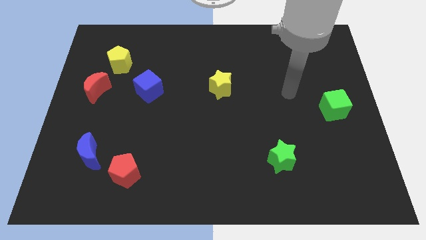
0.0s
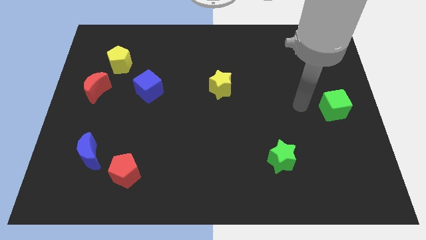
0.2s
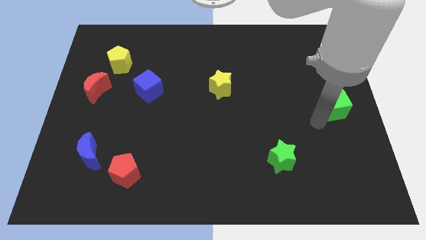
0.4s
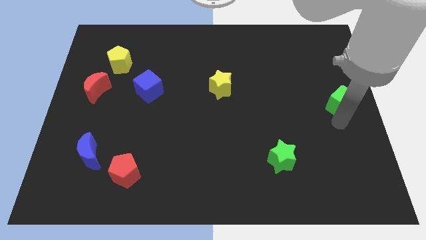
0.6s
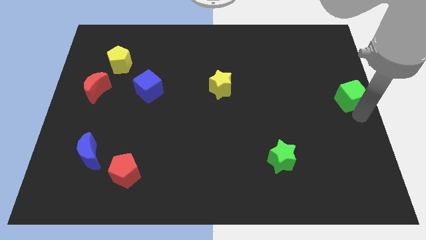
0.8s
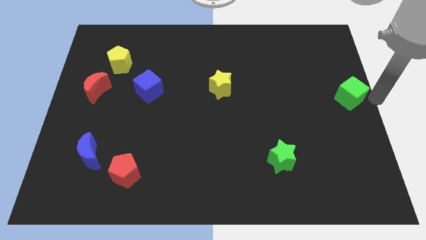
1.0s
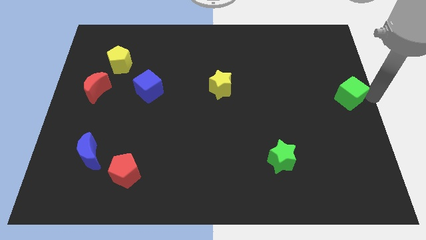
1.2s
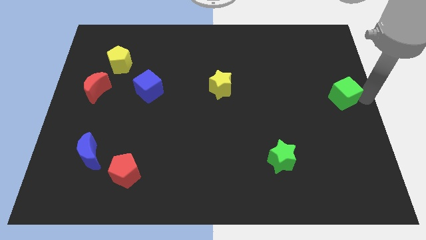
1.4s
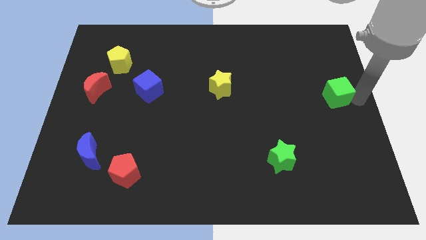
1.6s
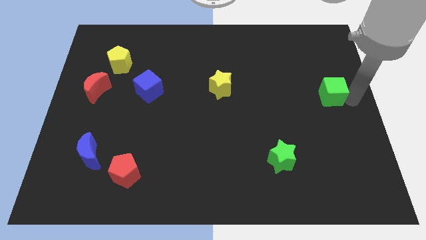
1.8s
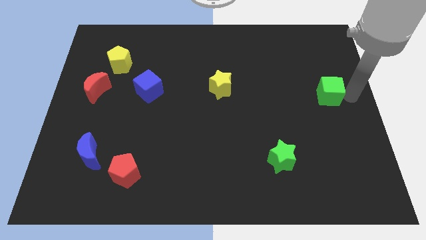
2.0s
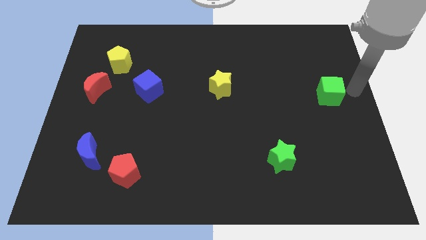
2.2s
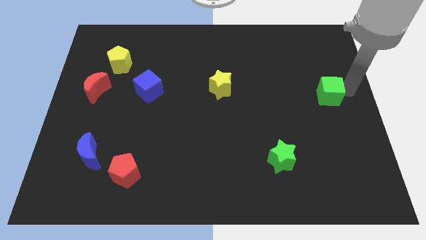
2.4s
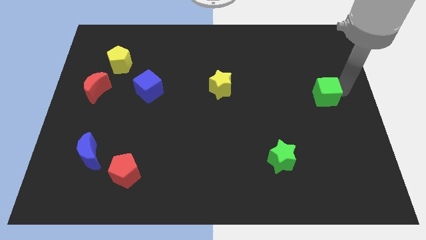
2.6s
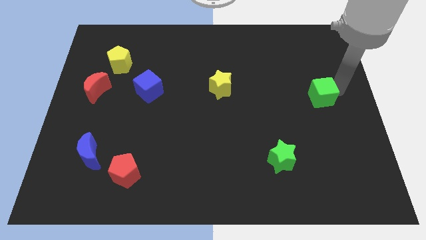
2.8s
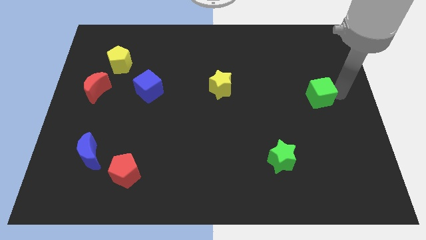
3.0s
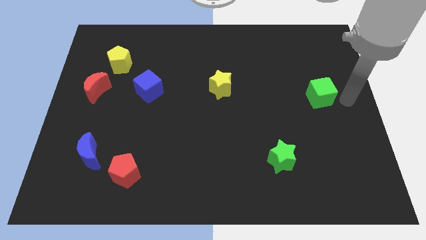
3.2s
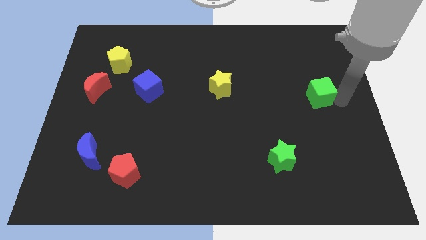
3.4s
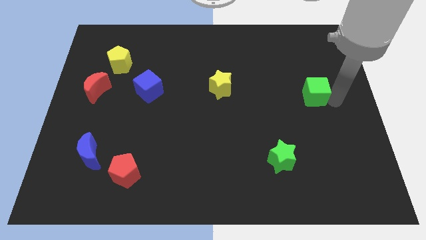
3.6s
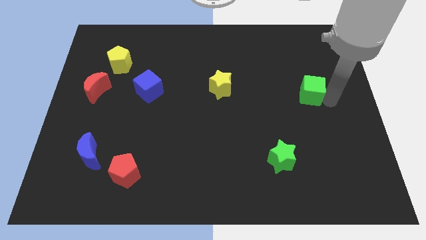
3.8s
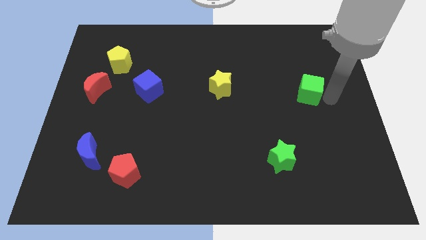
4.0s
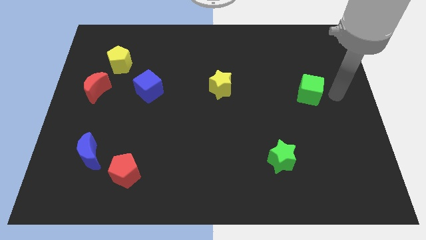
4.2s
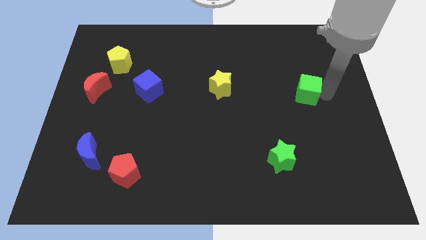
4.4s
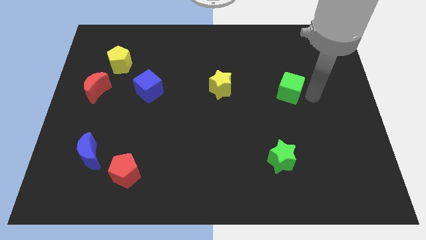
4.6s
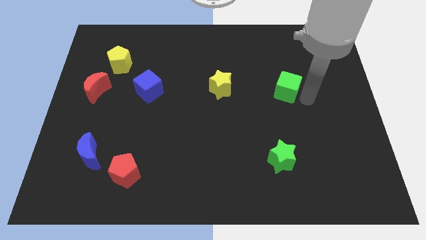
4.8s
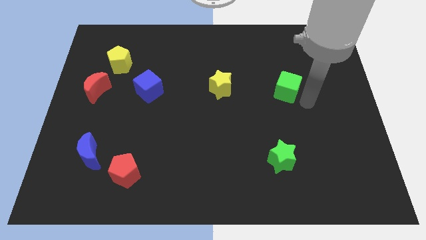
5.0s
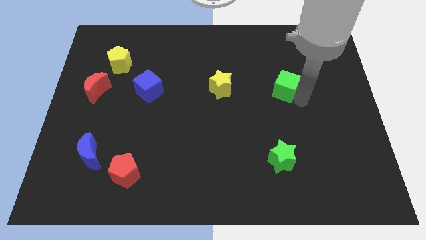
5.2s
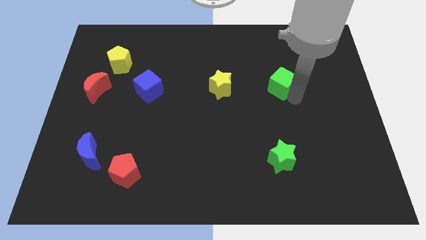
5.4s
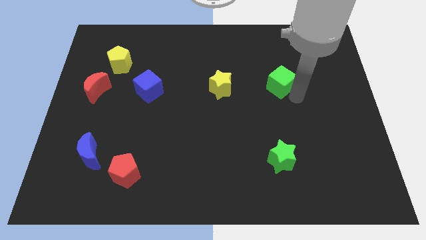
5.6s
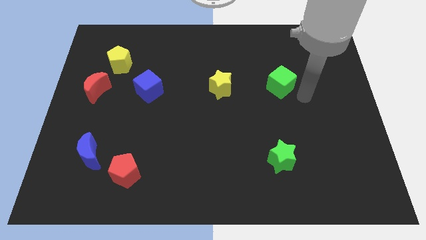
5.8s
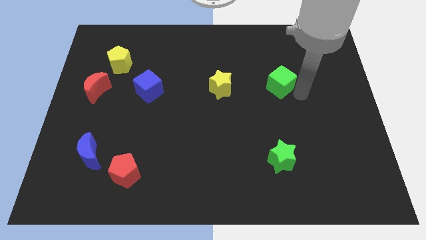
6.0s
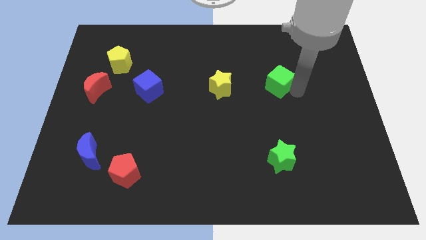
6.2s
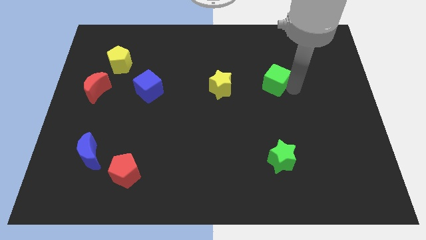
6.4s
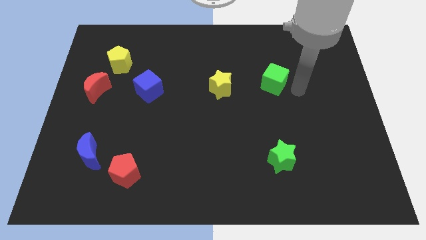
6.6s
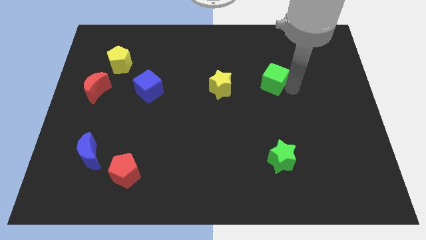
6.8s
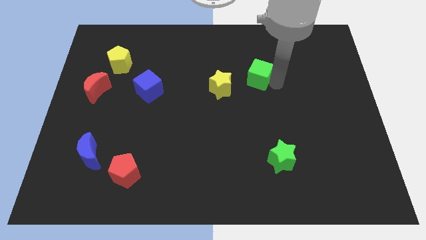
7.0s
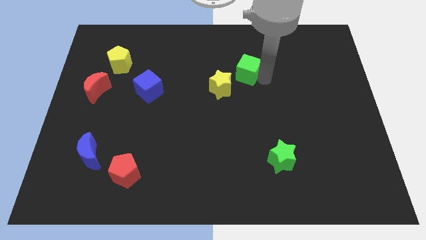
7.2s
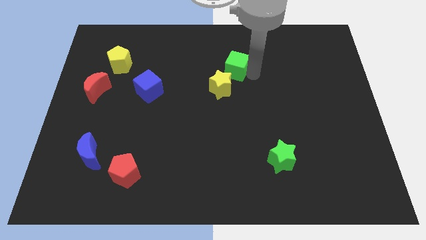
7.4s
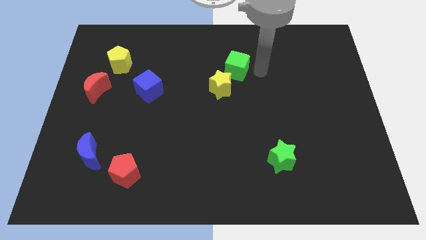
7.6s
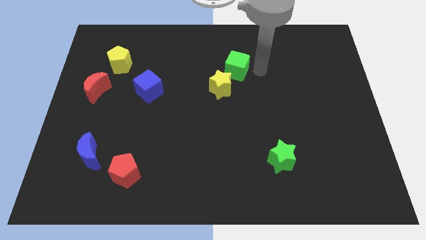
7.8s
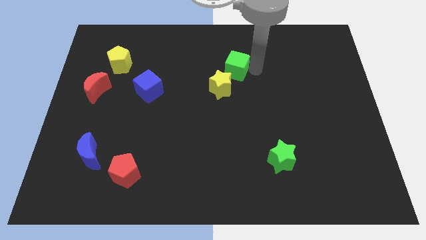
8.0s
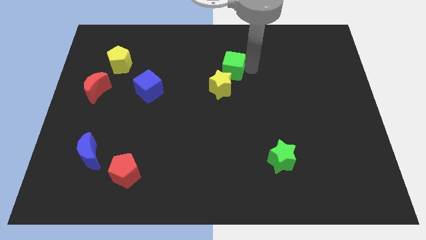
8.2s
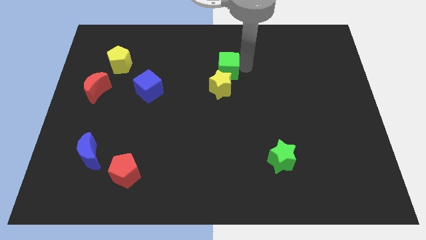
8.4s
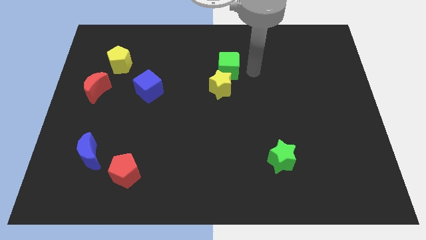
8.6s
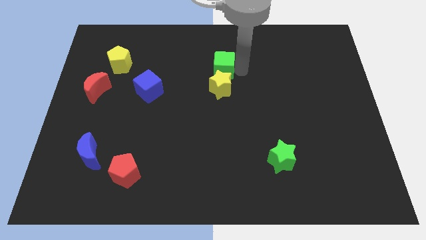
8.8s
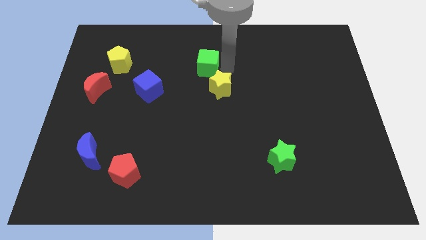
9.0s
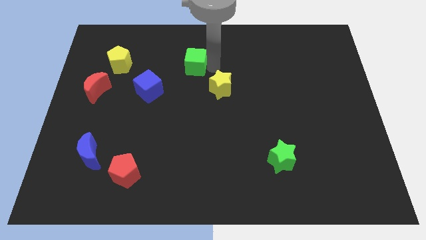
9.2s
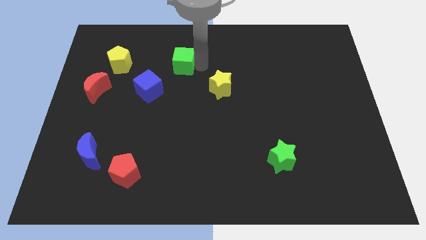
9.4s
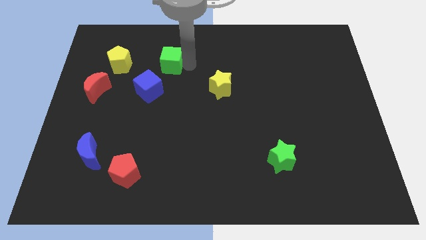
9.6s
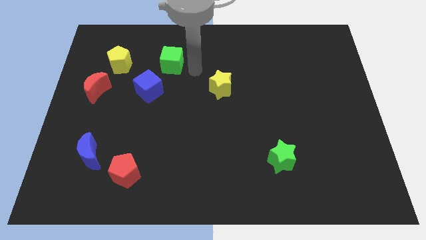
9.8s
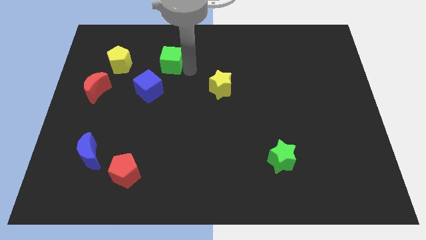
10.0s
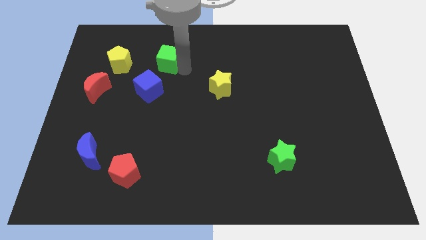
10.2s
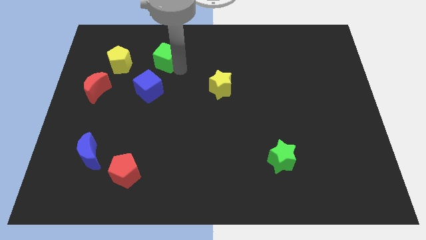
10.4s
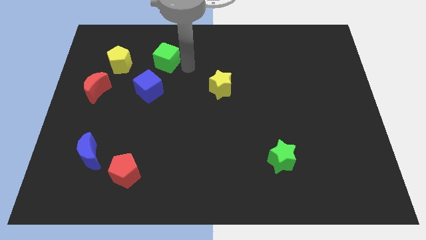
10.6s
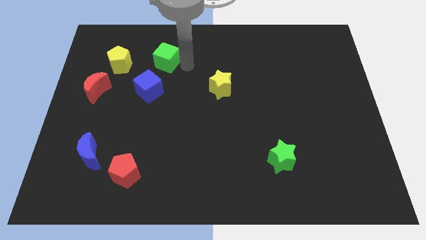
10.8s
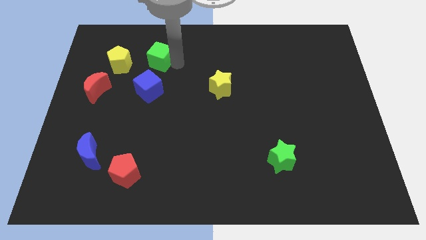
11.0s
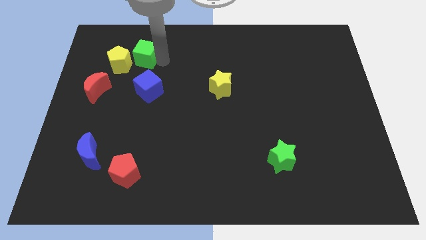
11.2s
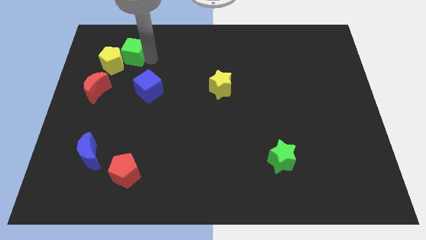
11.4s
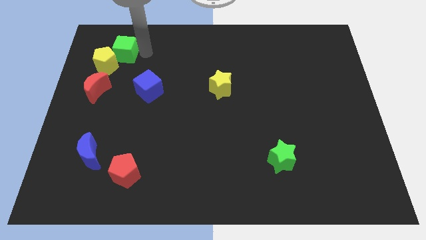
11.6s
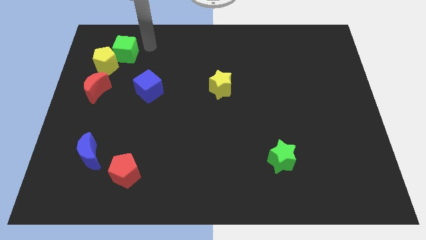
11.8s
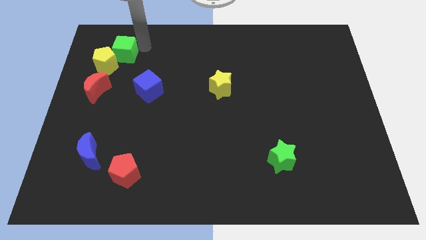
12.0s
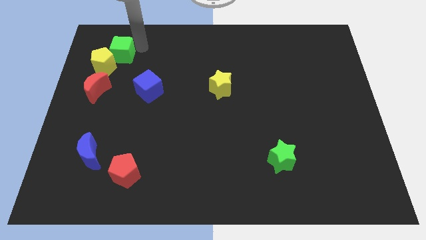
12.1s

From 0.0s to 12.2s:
put the green cube to the top side of the red moon

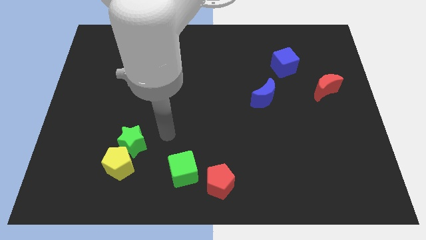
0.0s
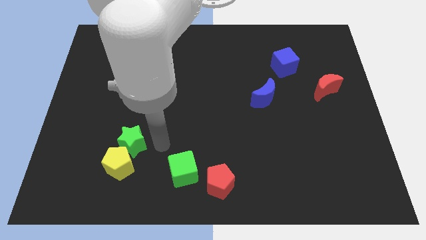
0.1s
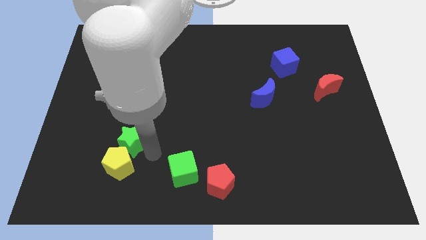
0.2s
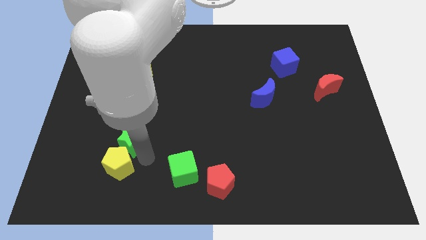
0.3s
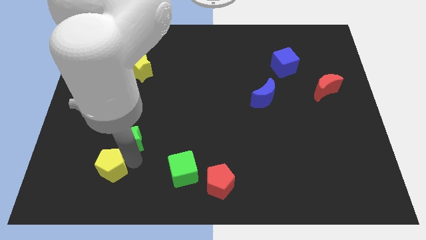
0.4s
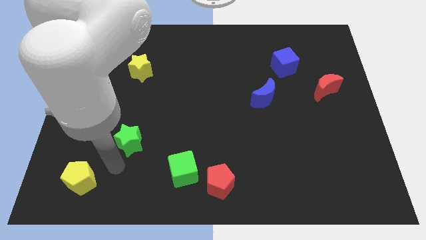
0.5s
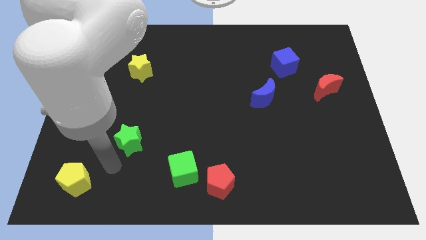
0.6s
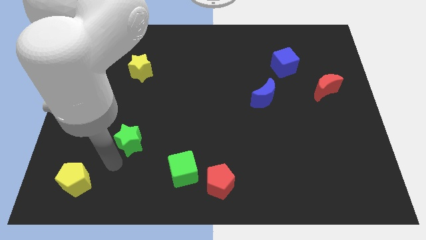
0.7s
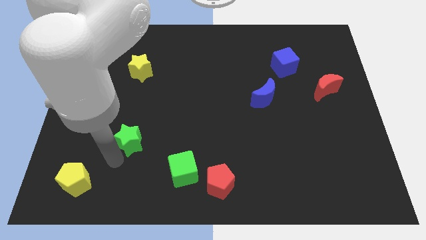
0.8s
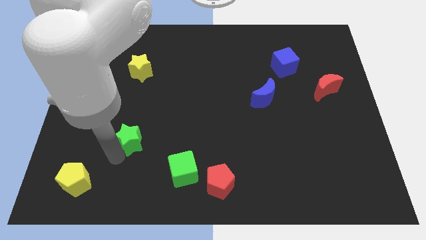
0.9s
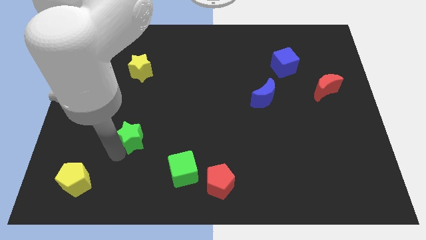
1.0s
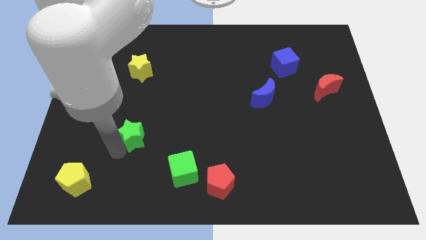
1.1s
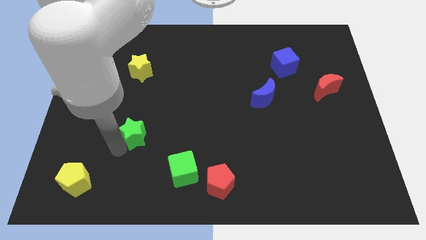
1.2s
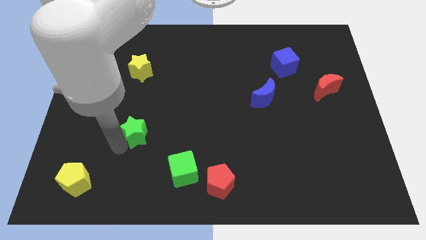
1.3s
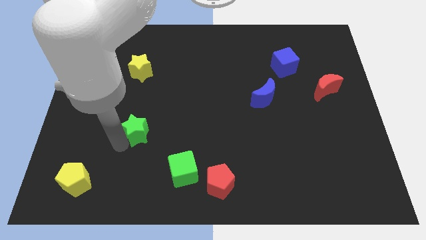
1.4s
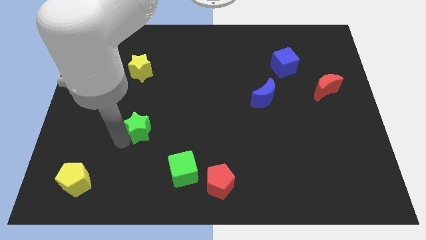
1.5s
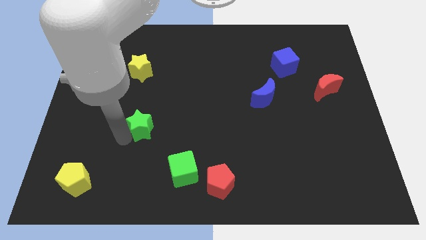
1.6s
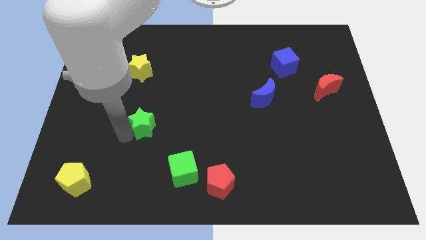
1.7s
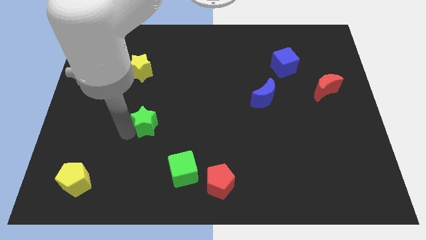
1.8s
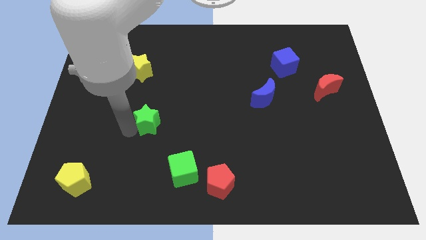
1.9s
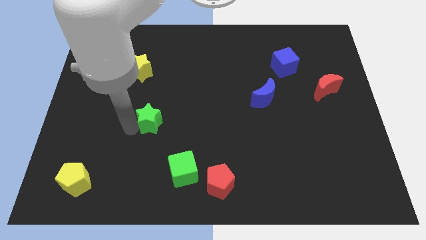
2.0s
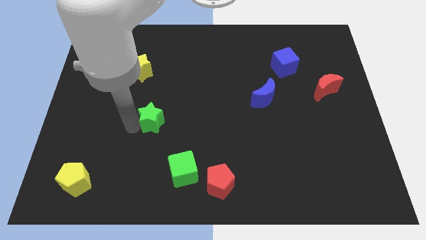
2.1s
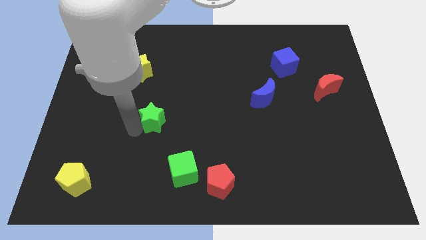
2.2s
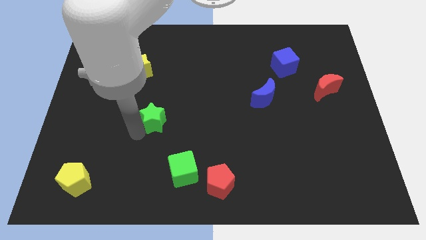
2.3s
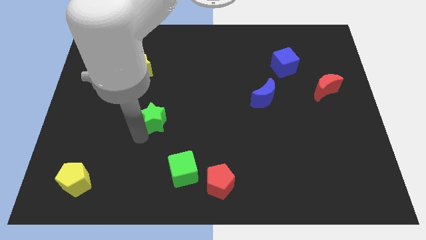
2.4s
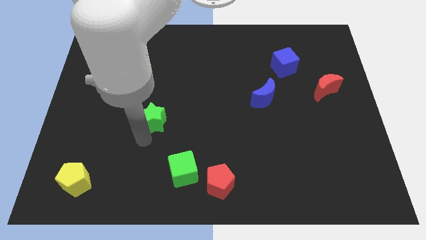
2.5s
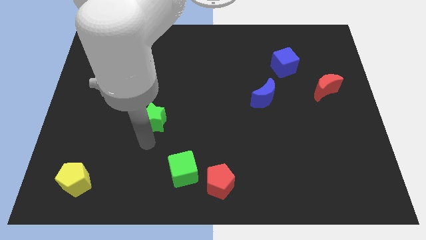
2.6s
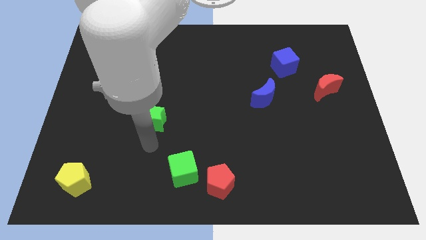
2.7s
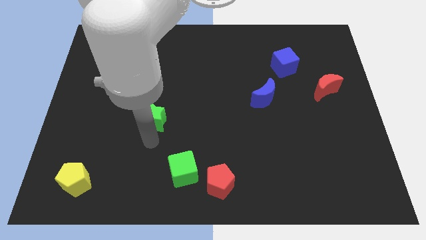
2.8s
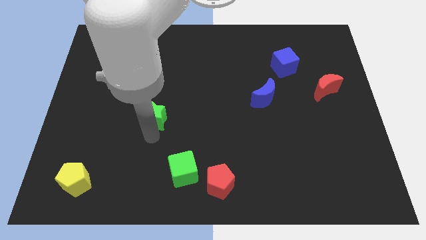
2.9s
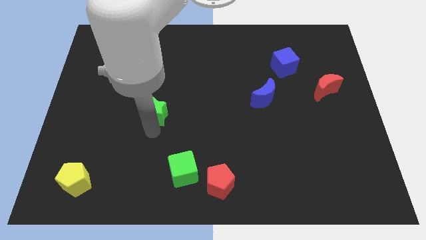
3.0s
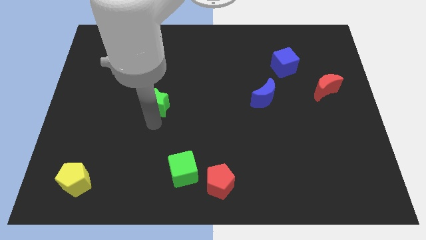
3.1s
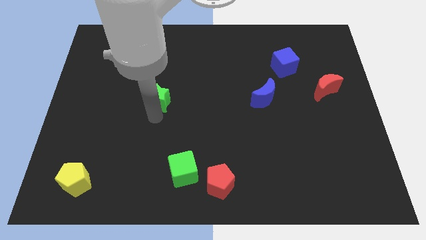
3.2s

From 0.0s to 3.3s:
move the green star diagonally down and to the right of the yellow star
